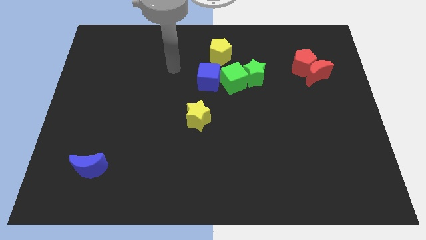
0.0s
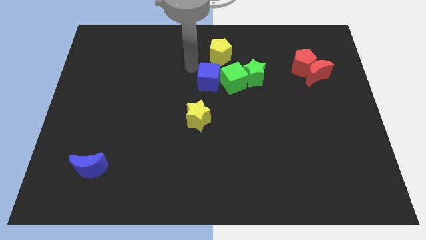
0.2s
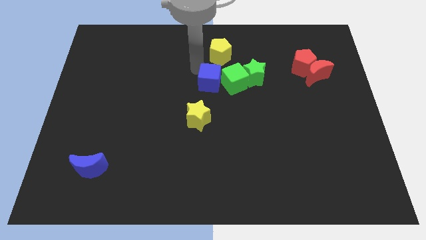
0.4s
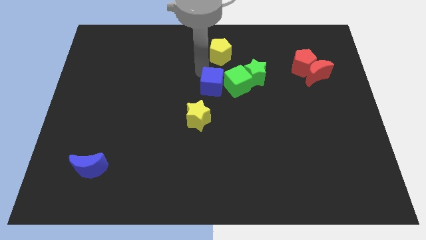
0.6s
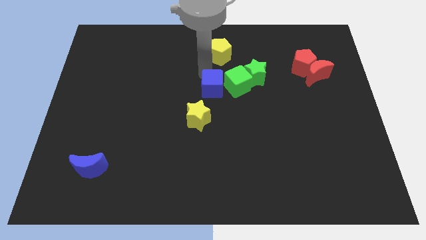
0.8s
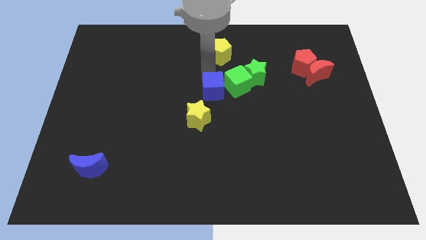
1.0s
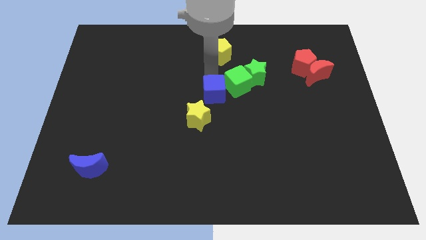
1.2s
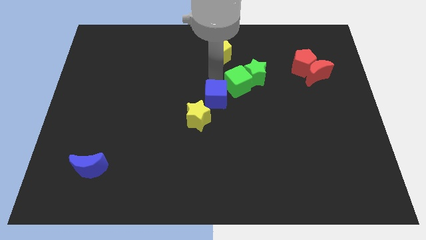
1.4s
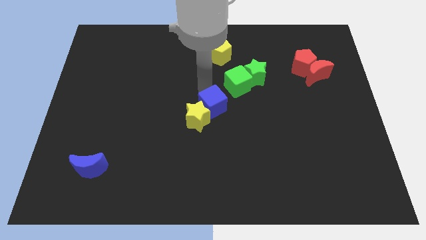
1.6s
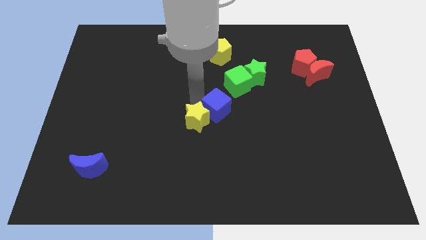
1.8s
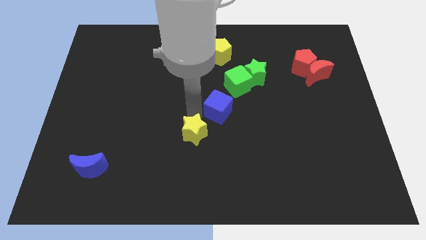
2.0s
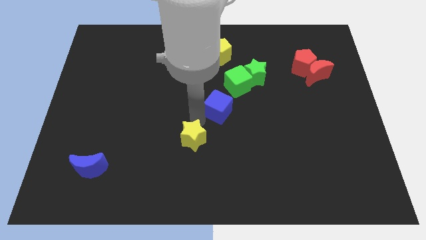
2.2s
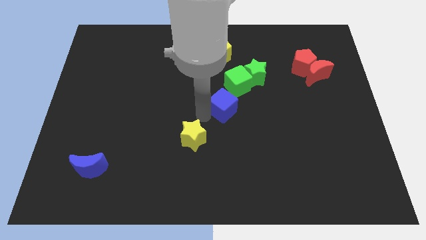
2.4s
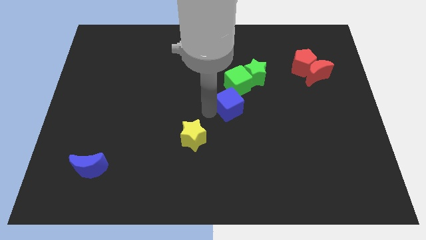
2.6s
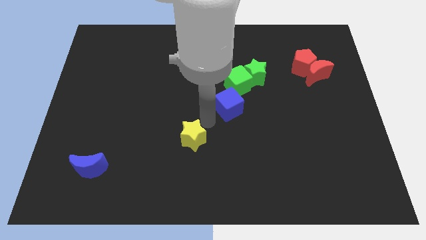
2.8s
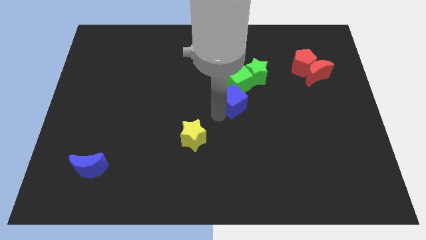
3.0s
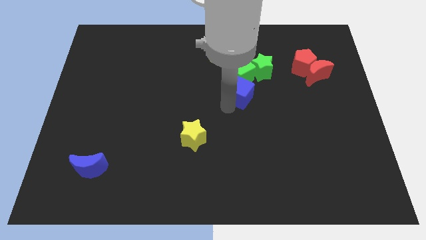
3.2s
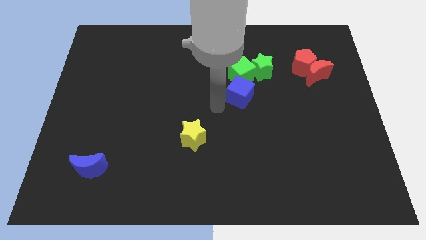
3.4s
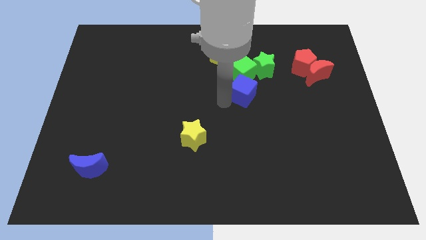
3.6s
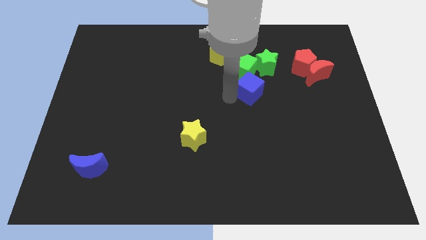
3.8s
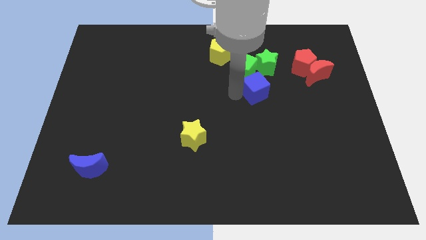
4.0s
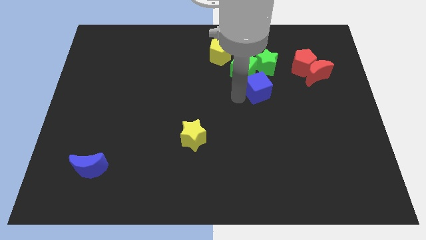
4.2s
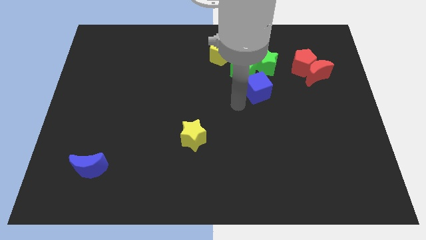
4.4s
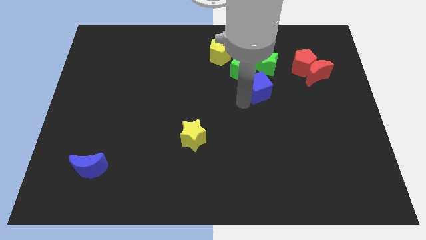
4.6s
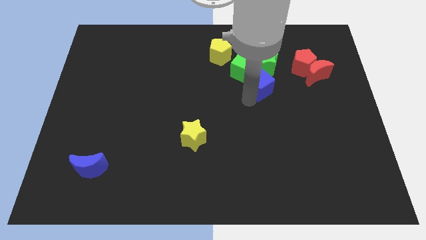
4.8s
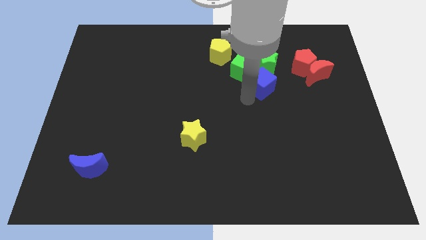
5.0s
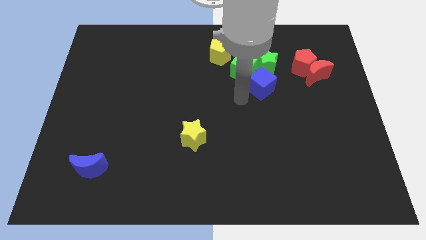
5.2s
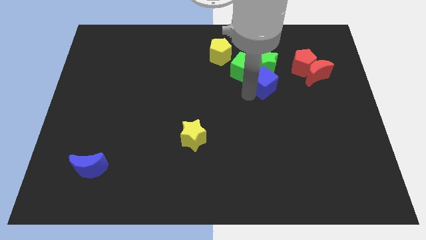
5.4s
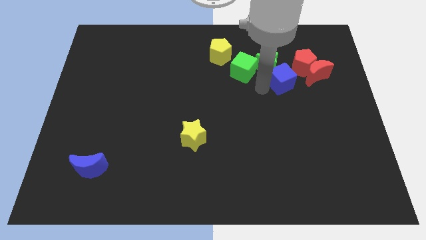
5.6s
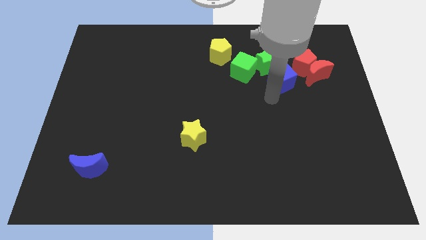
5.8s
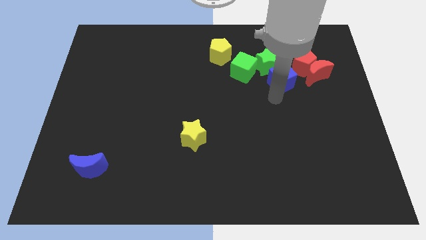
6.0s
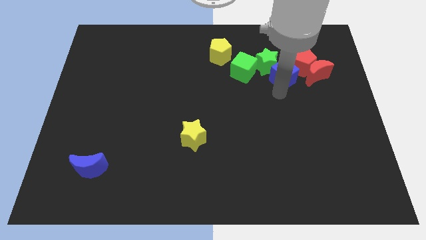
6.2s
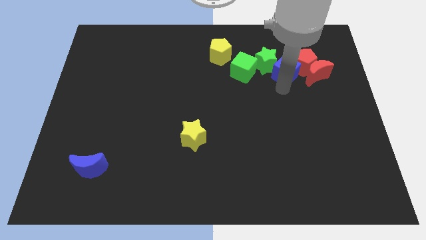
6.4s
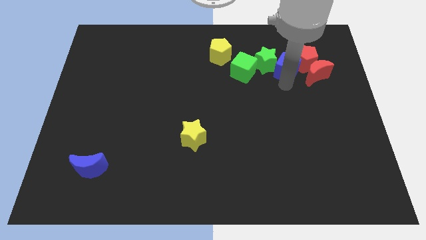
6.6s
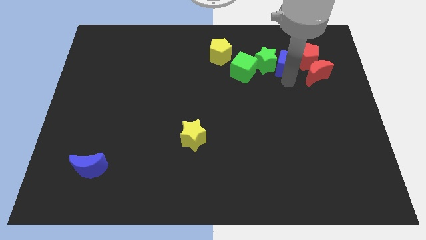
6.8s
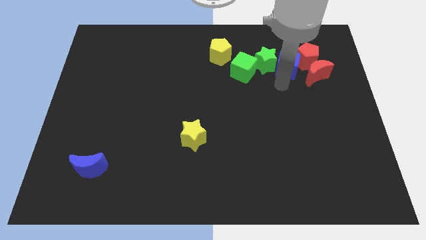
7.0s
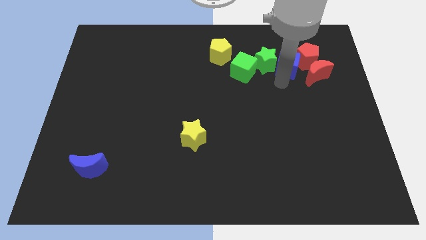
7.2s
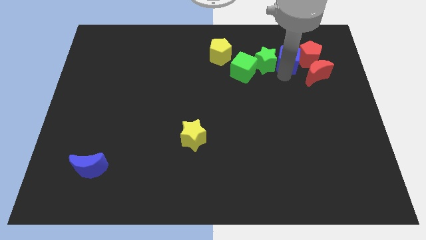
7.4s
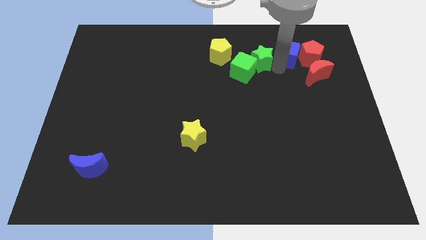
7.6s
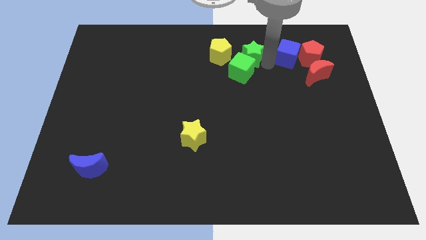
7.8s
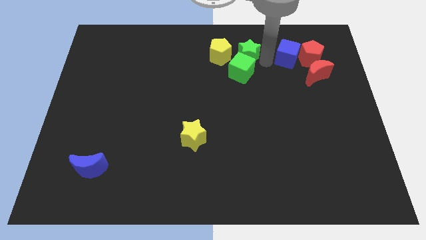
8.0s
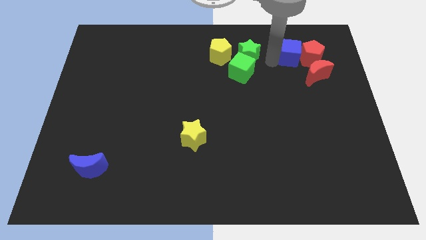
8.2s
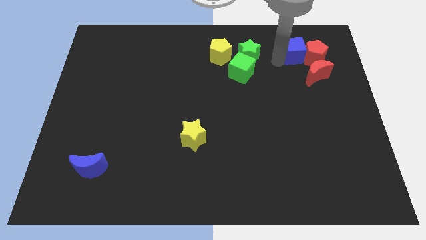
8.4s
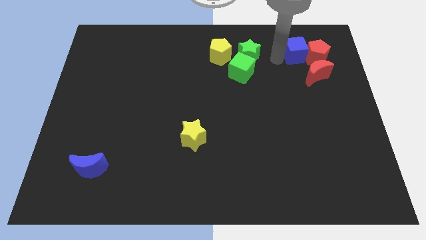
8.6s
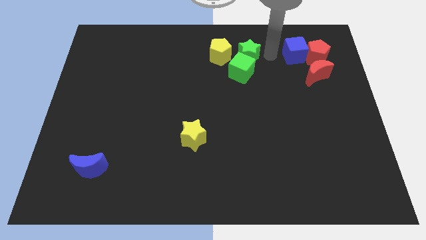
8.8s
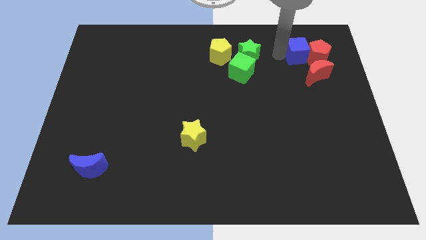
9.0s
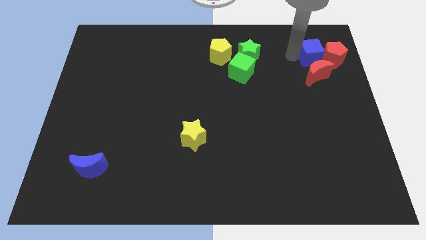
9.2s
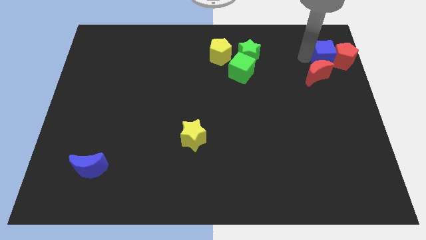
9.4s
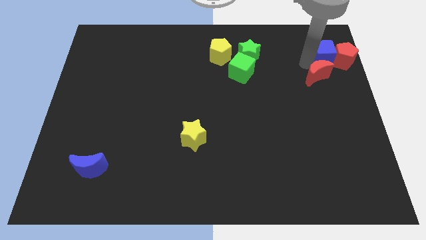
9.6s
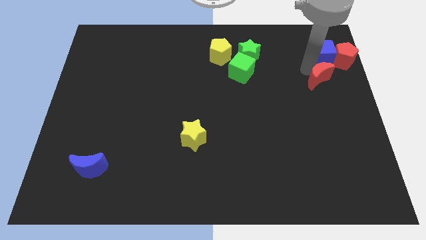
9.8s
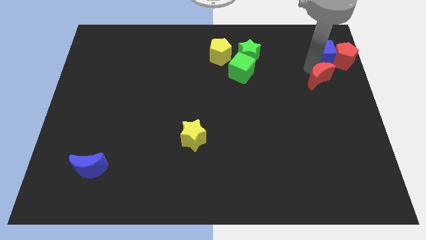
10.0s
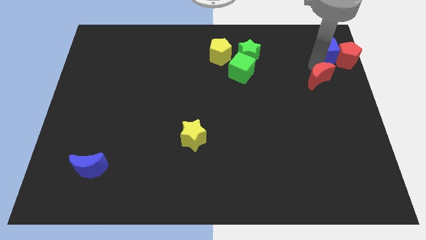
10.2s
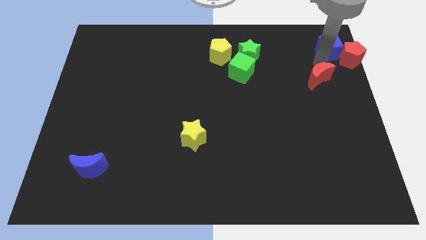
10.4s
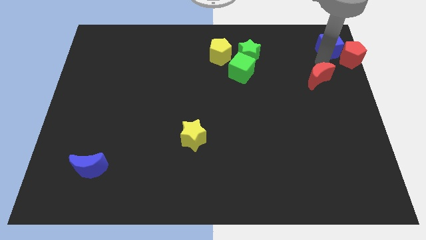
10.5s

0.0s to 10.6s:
put the blue cube to the upper right corner

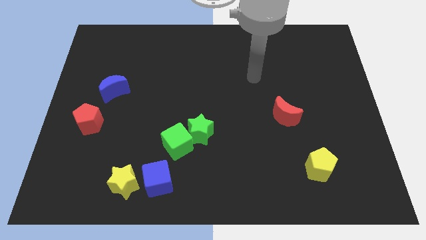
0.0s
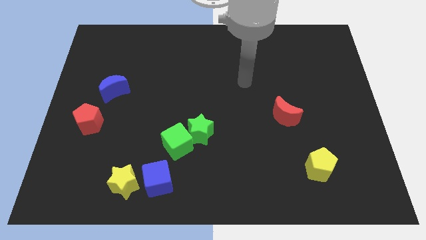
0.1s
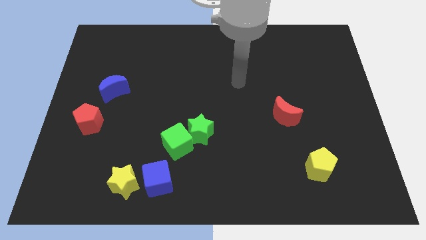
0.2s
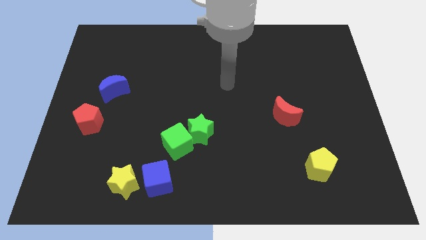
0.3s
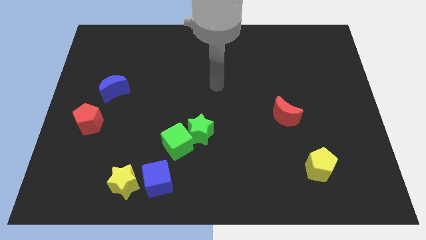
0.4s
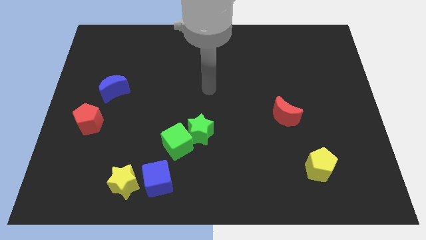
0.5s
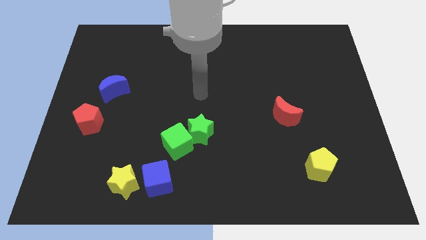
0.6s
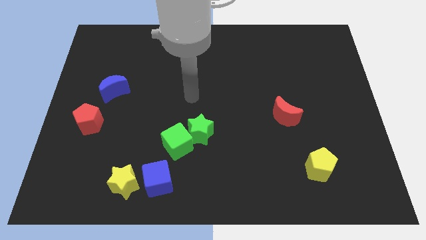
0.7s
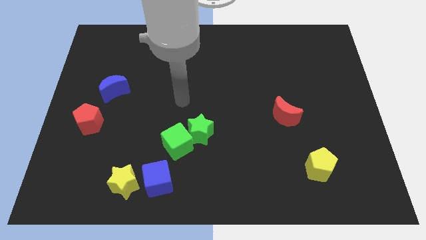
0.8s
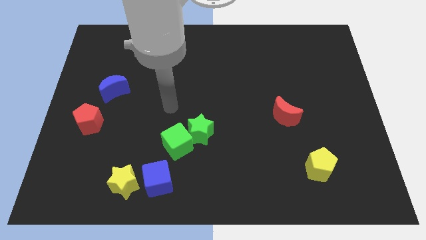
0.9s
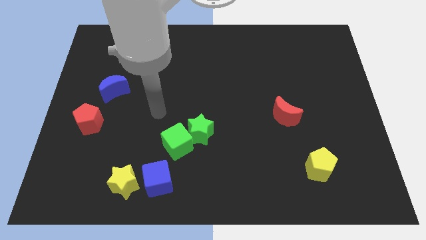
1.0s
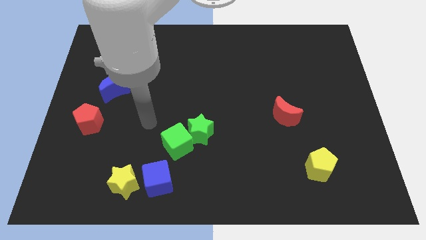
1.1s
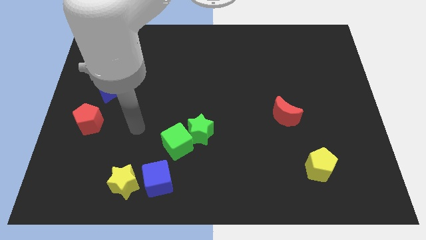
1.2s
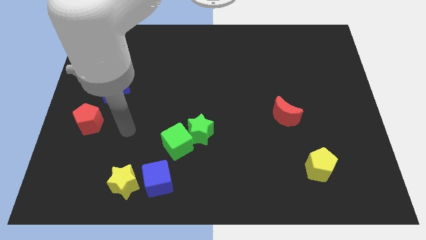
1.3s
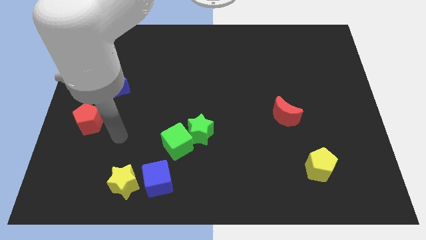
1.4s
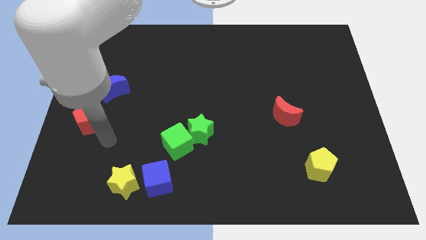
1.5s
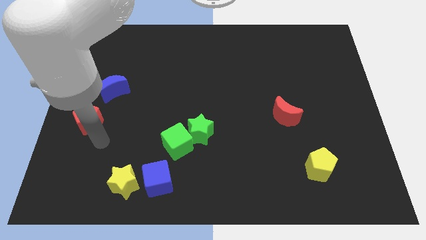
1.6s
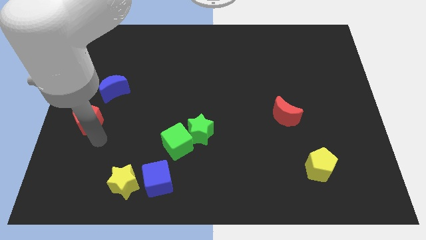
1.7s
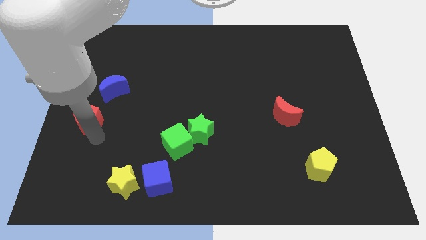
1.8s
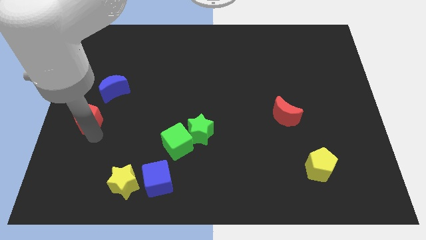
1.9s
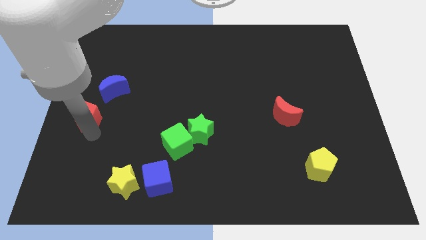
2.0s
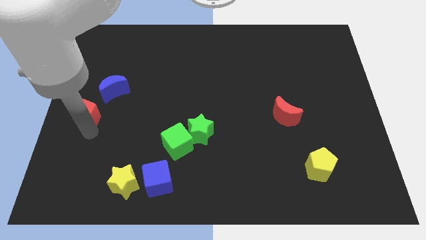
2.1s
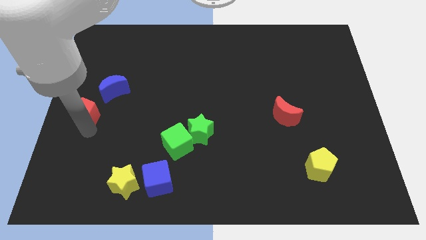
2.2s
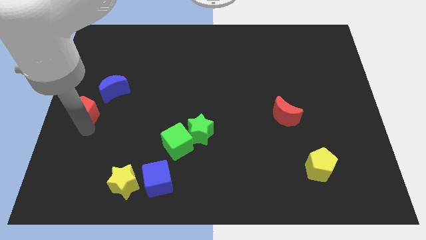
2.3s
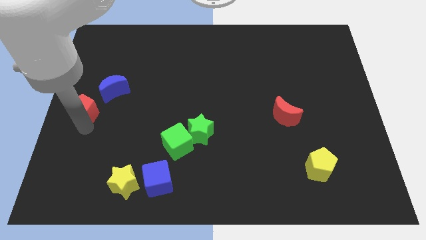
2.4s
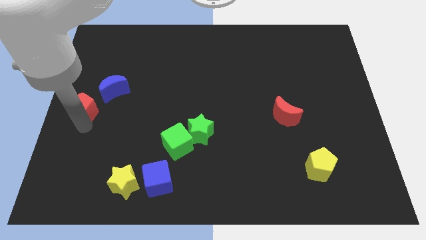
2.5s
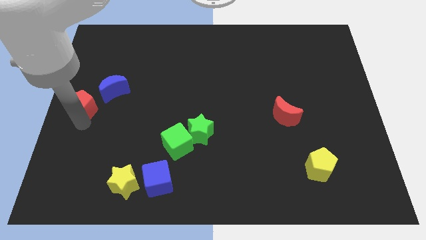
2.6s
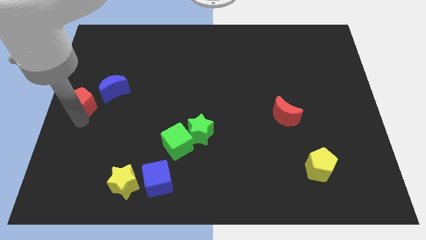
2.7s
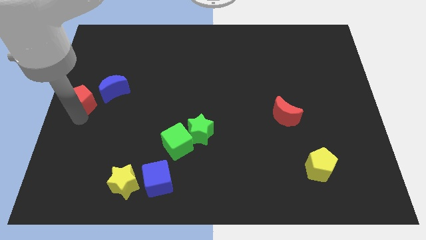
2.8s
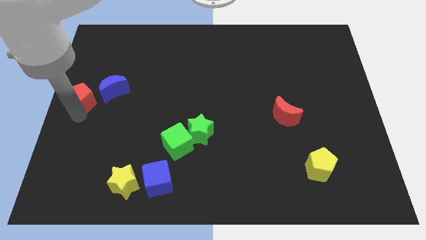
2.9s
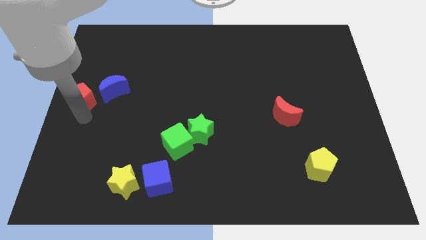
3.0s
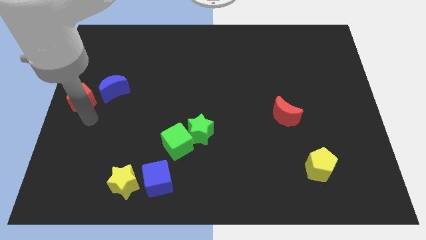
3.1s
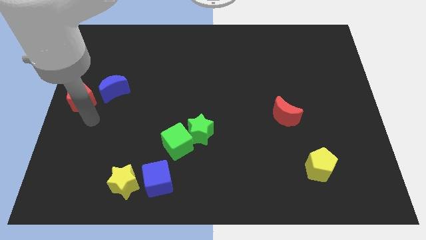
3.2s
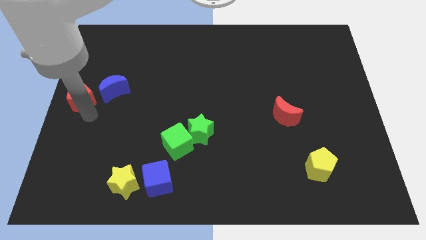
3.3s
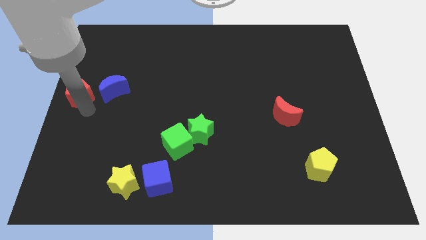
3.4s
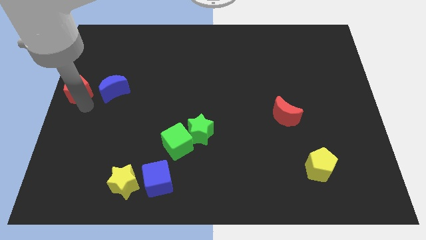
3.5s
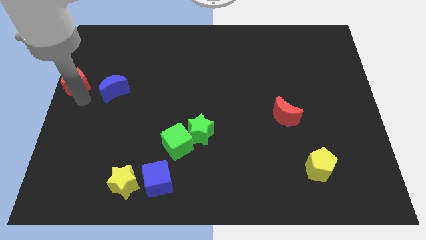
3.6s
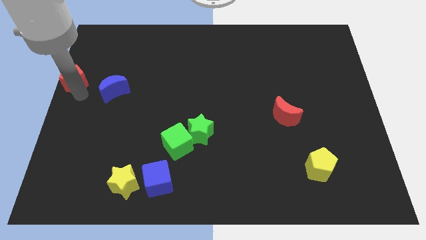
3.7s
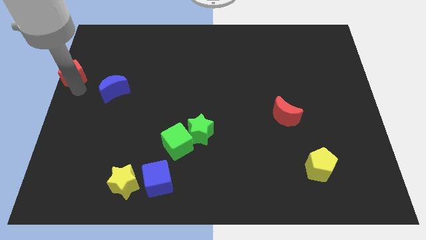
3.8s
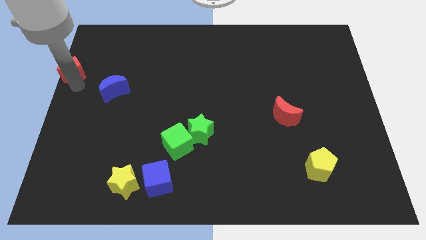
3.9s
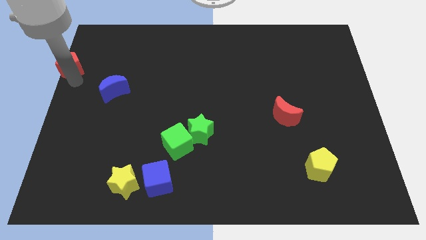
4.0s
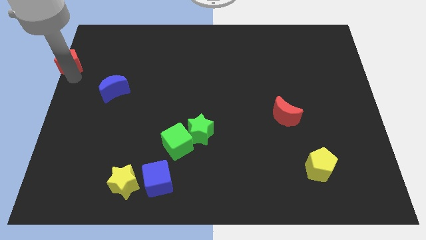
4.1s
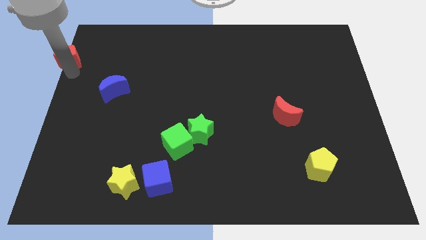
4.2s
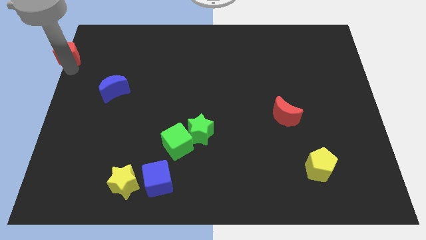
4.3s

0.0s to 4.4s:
push the red pentagon to the top left
